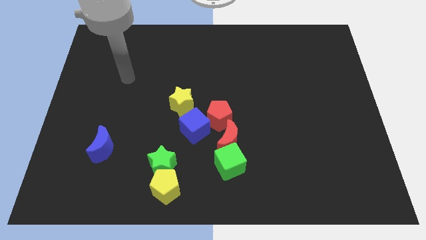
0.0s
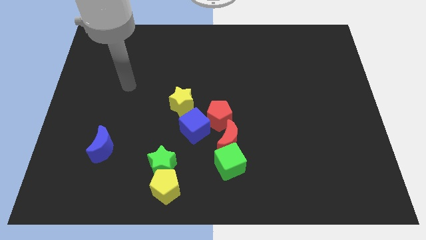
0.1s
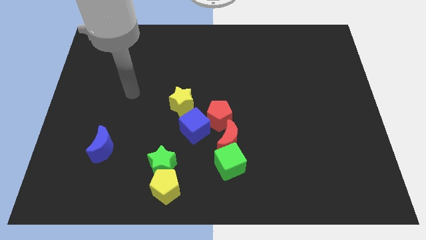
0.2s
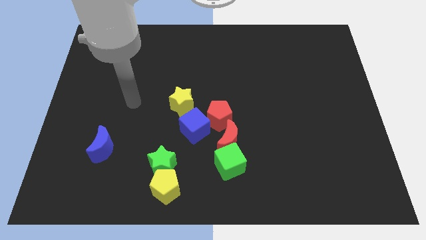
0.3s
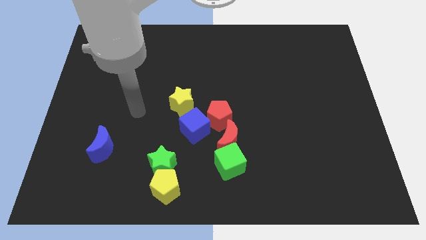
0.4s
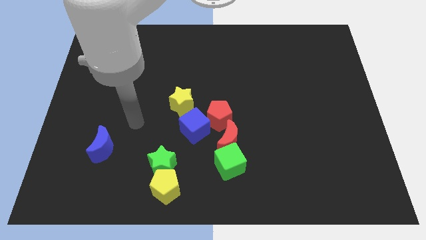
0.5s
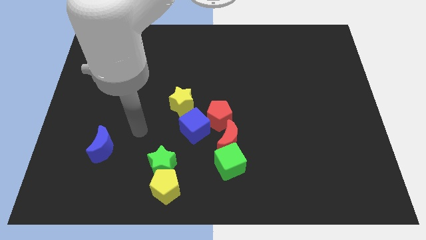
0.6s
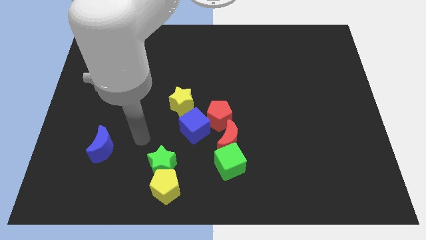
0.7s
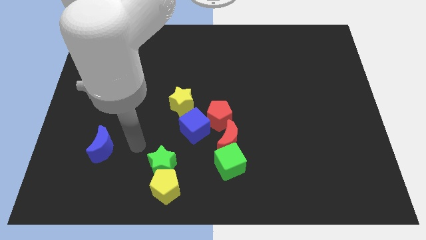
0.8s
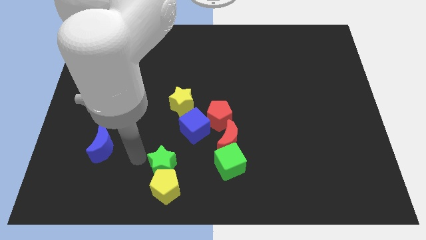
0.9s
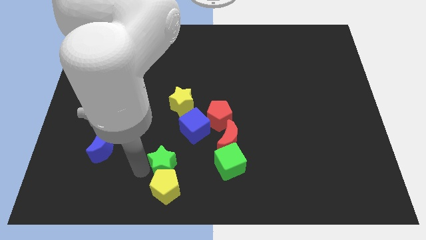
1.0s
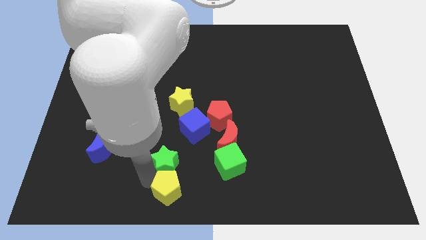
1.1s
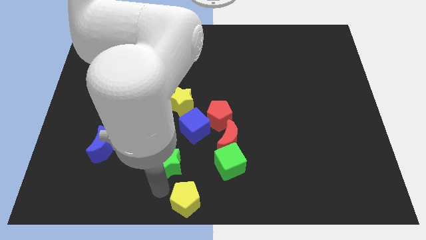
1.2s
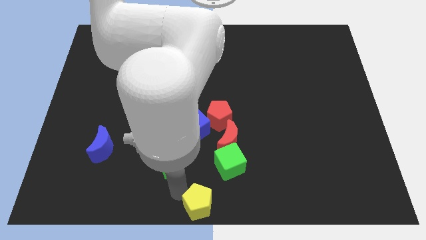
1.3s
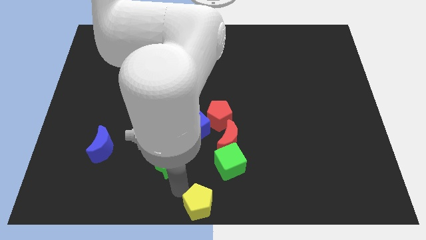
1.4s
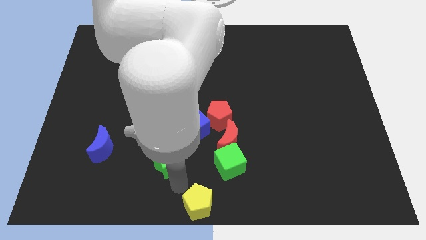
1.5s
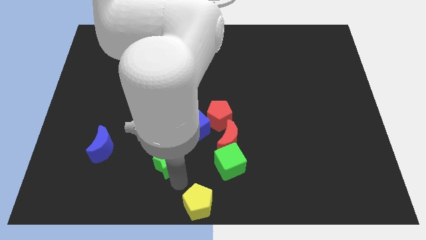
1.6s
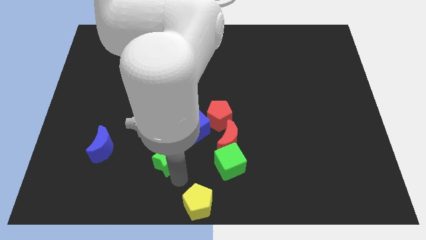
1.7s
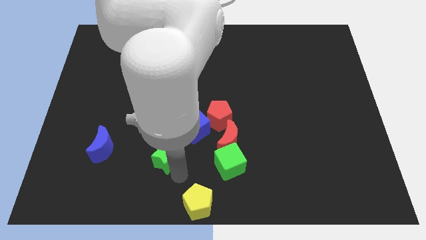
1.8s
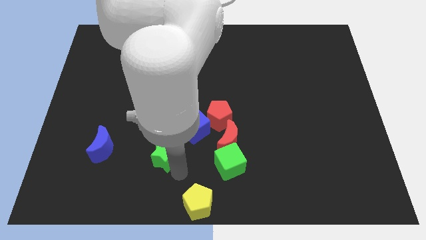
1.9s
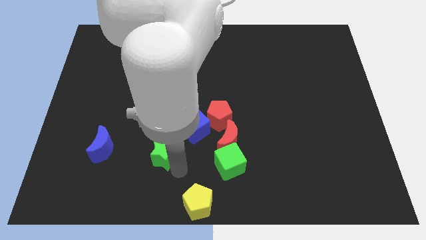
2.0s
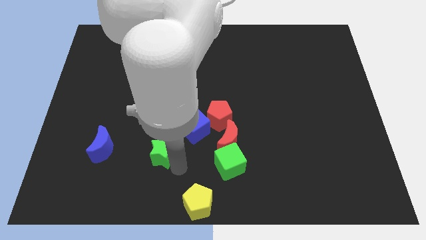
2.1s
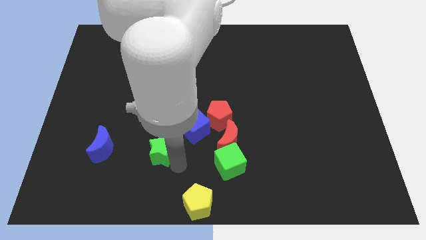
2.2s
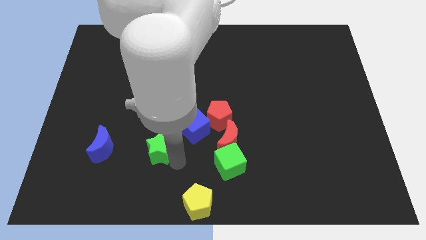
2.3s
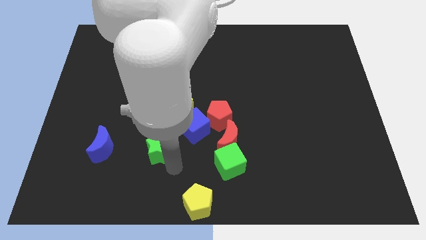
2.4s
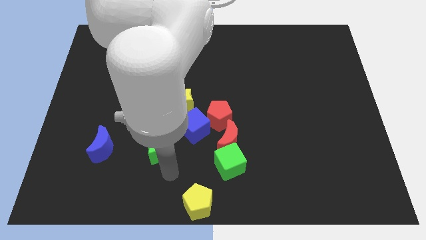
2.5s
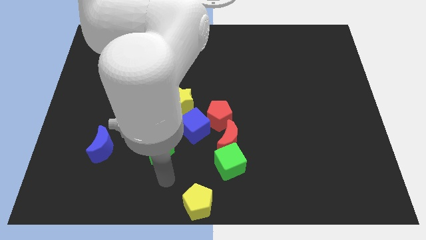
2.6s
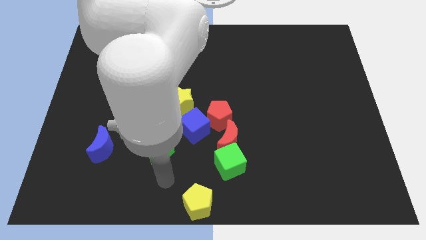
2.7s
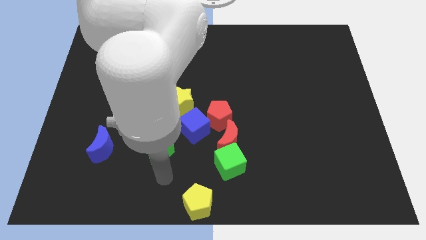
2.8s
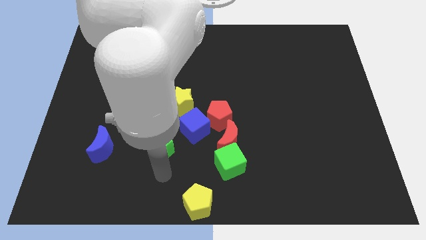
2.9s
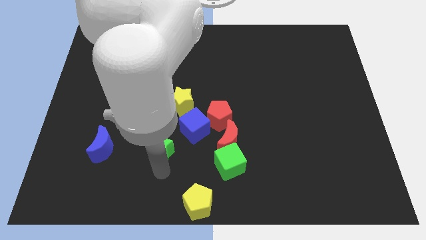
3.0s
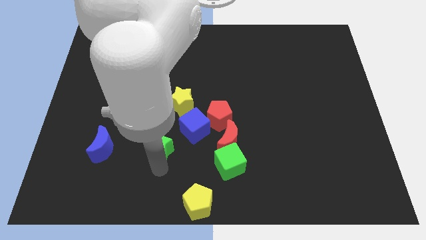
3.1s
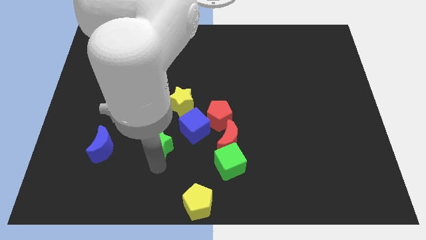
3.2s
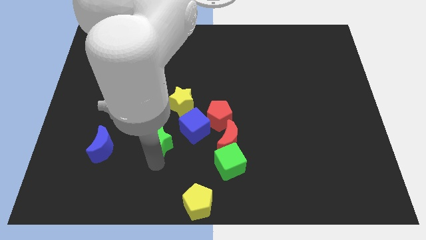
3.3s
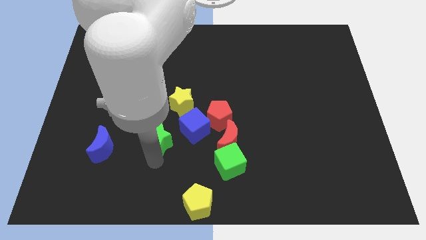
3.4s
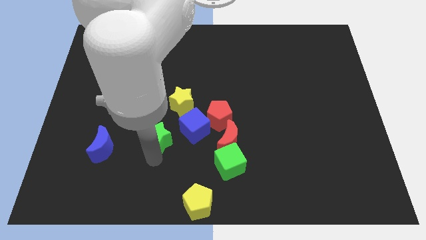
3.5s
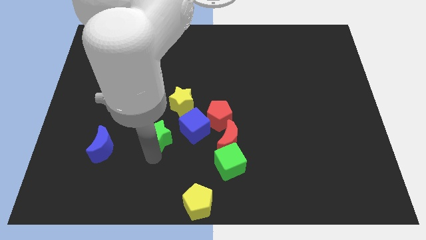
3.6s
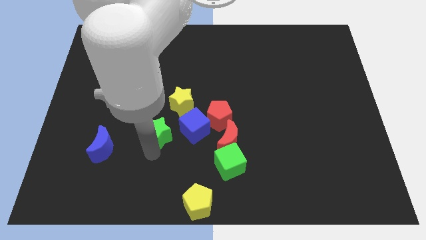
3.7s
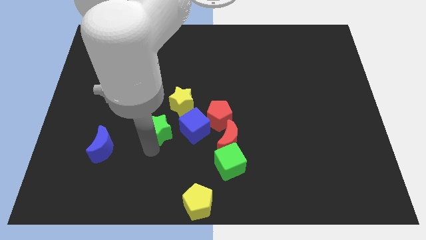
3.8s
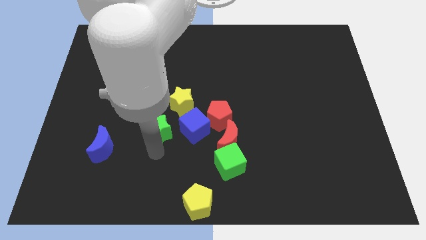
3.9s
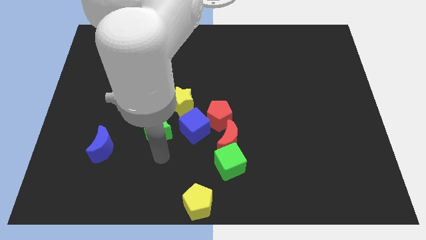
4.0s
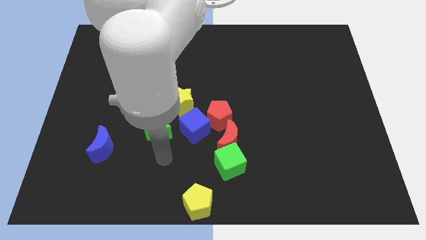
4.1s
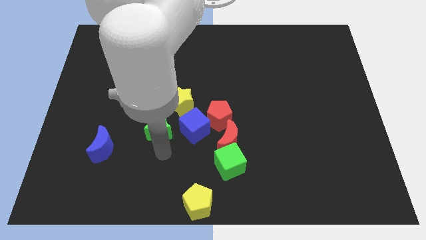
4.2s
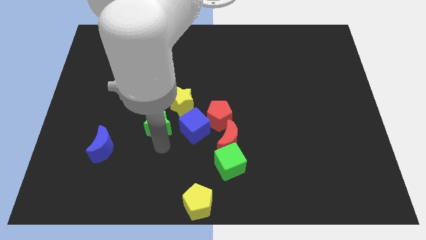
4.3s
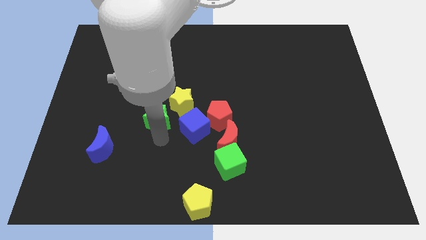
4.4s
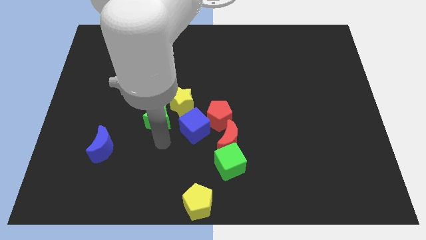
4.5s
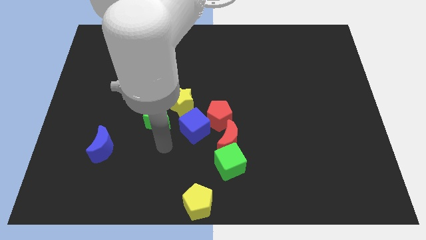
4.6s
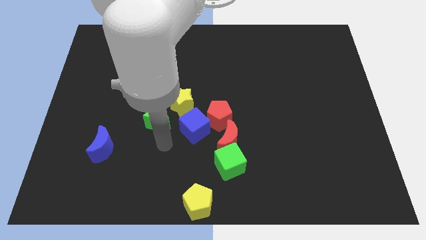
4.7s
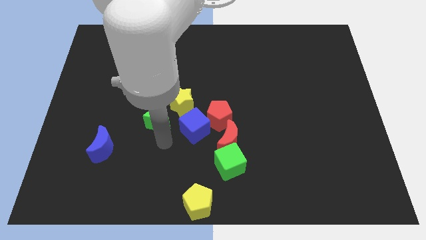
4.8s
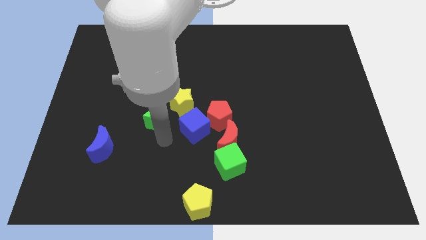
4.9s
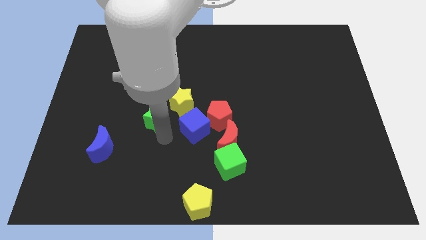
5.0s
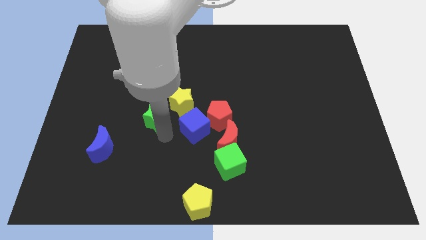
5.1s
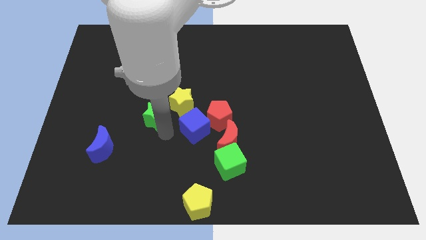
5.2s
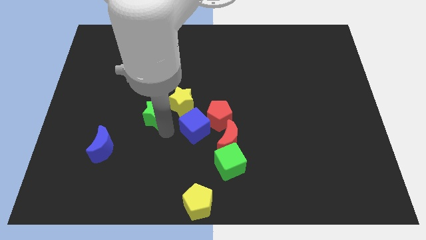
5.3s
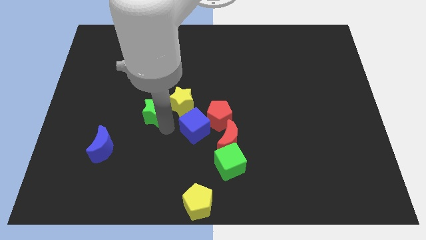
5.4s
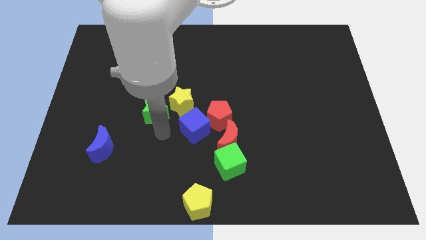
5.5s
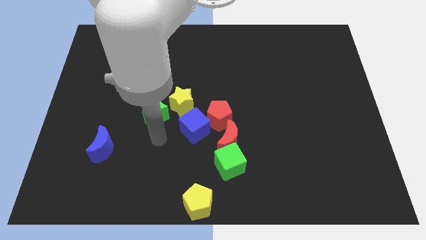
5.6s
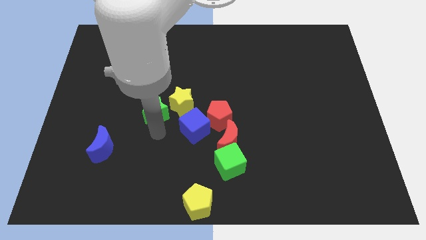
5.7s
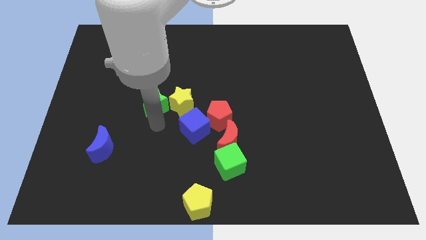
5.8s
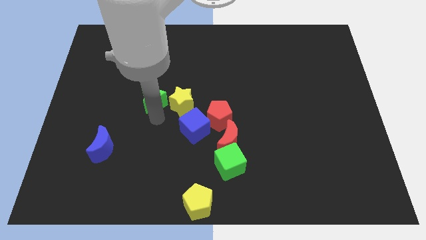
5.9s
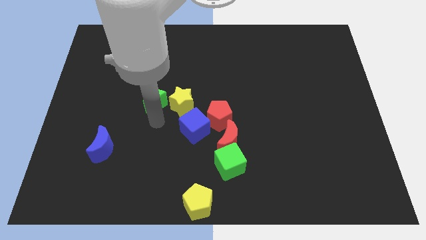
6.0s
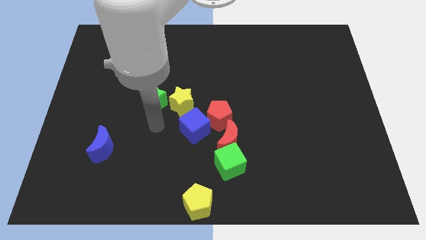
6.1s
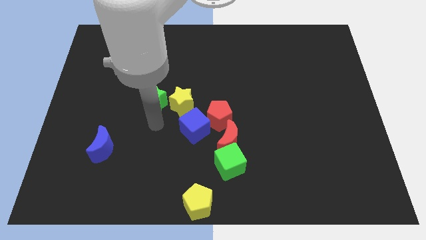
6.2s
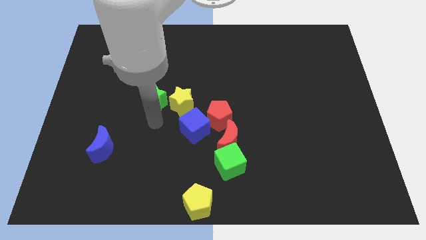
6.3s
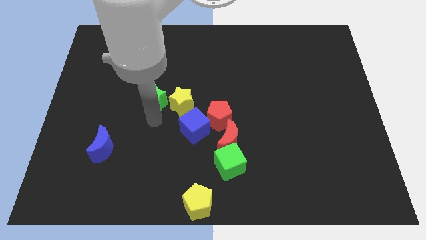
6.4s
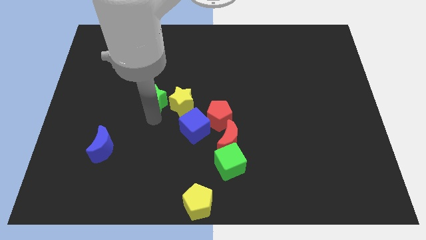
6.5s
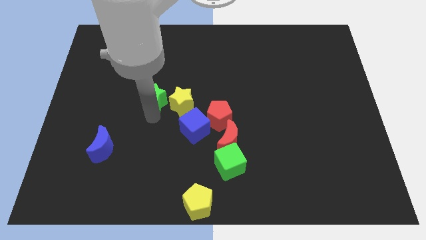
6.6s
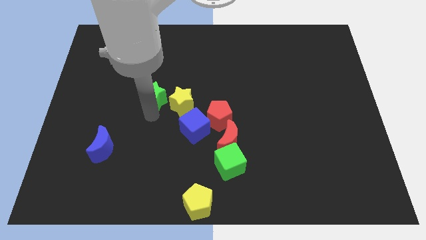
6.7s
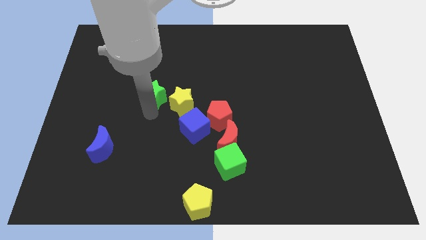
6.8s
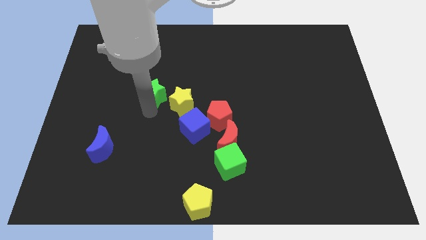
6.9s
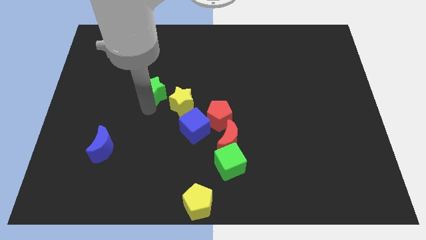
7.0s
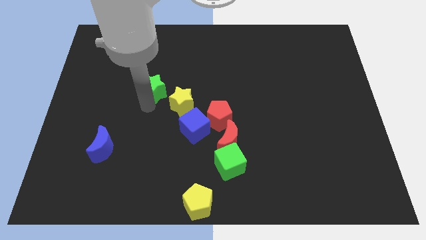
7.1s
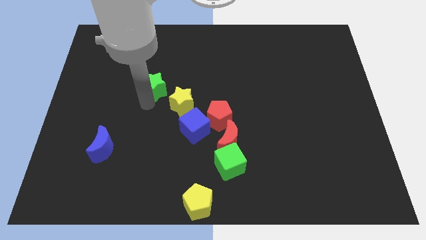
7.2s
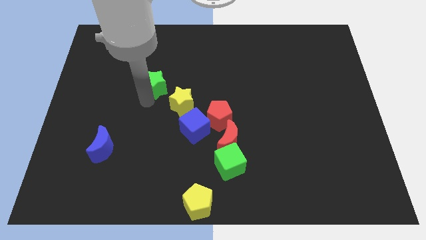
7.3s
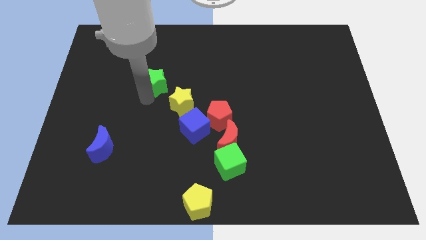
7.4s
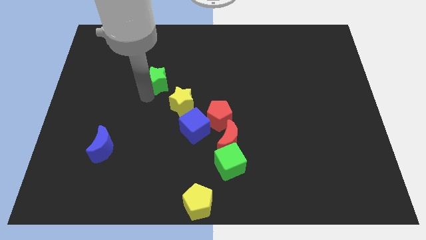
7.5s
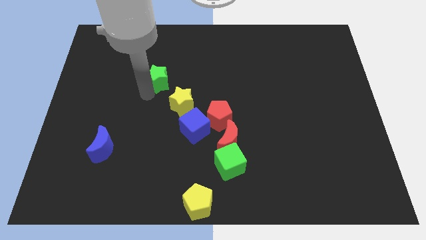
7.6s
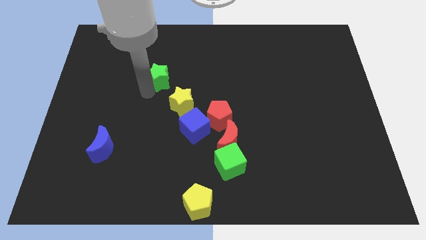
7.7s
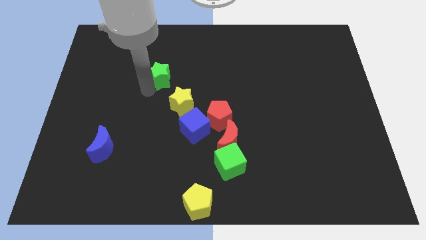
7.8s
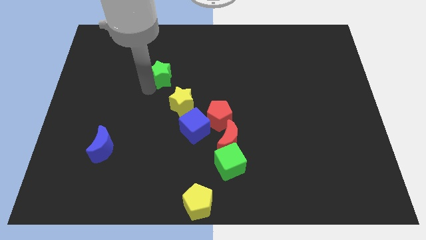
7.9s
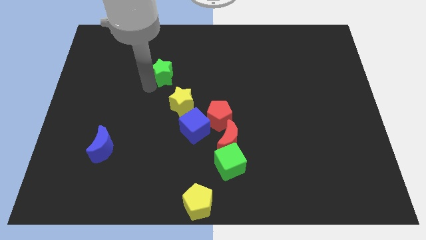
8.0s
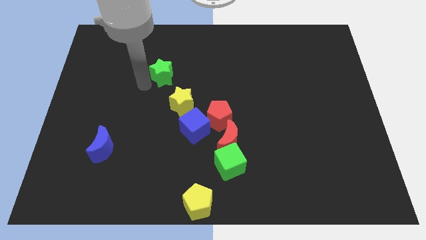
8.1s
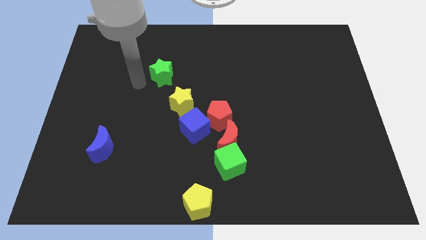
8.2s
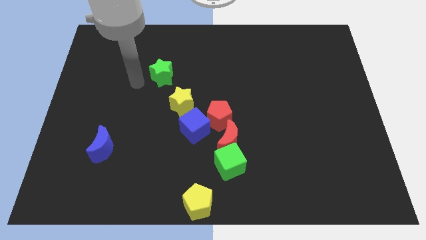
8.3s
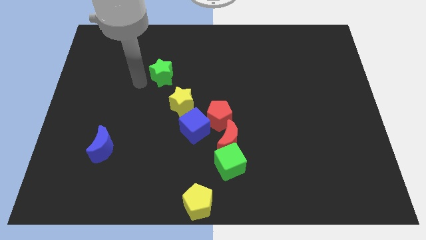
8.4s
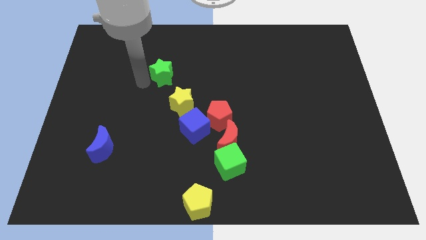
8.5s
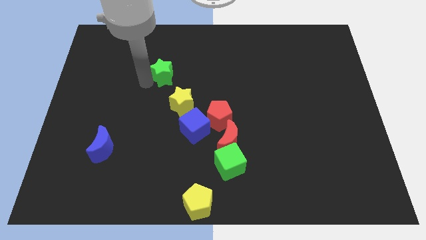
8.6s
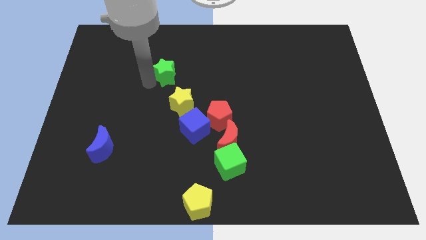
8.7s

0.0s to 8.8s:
put the green star above the yellow star
